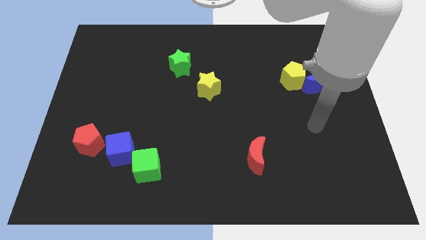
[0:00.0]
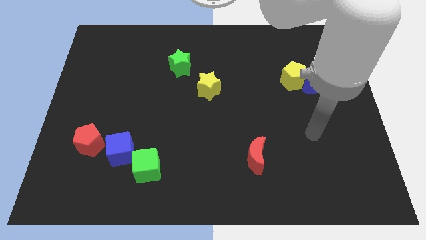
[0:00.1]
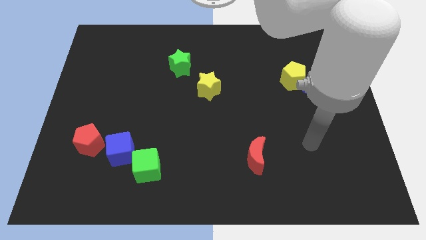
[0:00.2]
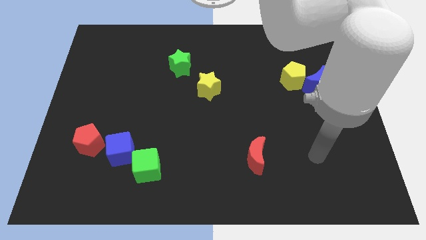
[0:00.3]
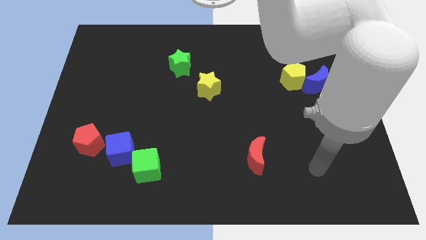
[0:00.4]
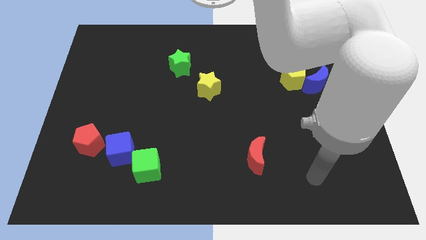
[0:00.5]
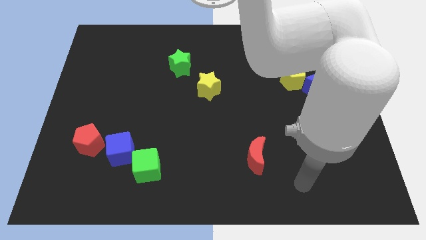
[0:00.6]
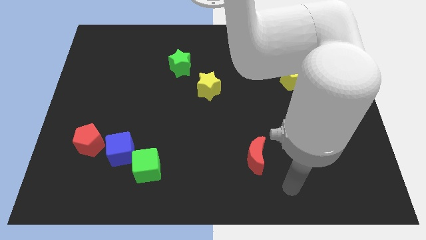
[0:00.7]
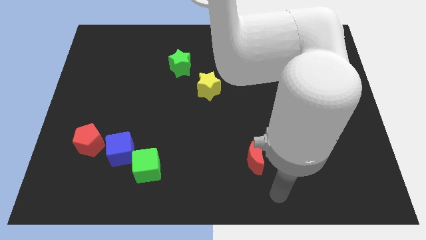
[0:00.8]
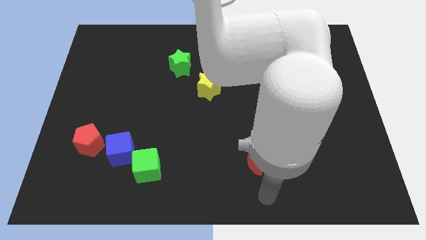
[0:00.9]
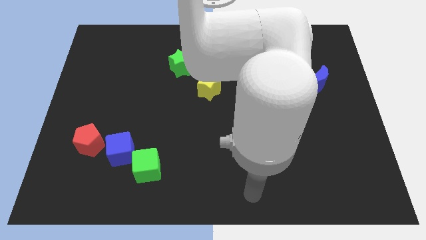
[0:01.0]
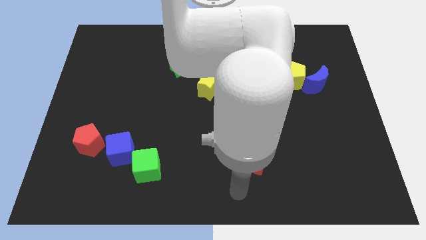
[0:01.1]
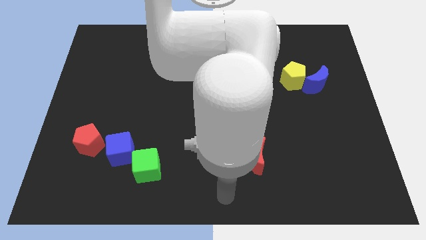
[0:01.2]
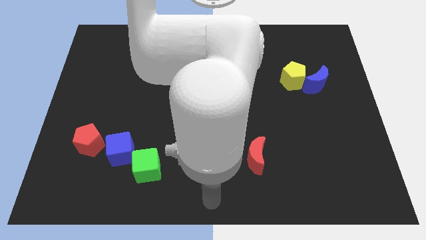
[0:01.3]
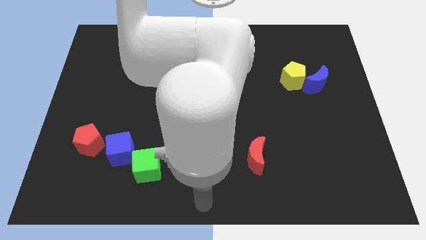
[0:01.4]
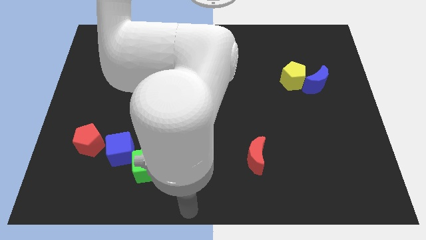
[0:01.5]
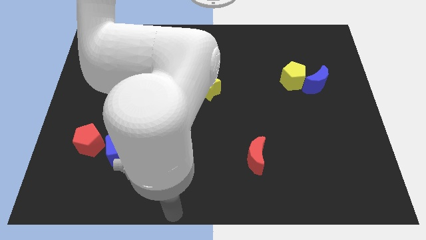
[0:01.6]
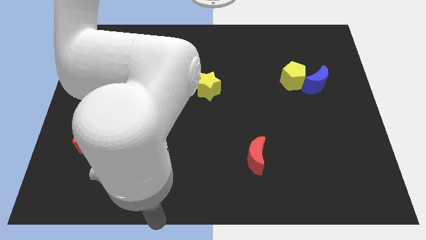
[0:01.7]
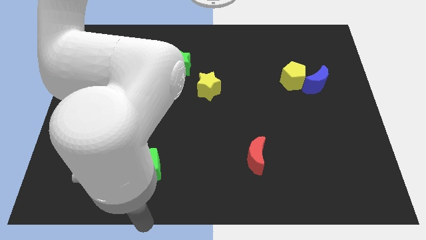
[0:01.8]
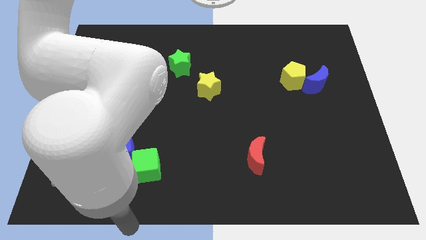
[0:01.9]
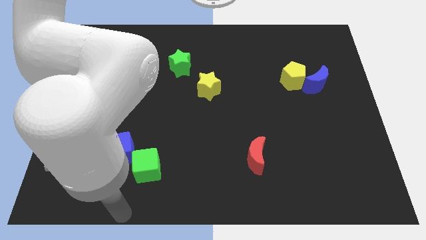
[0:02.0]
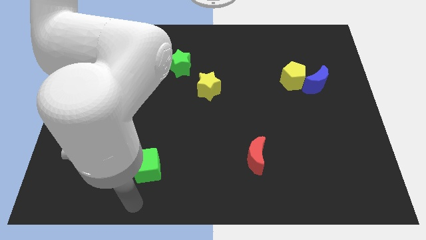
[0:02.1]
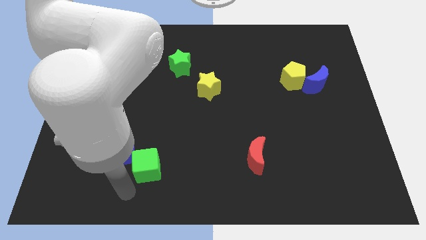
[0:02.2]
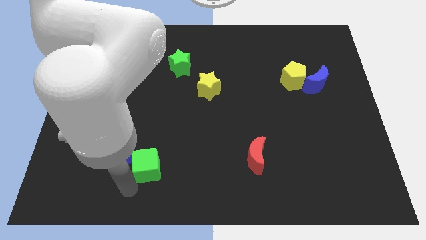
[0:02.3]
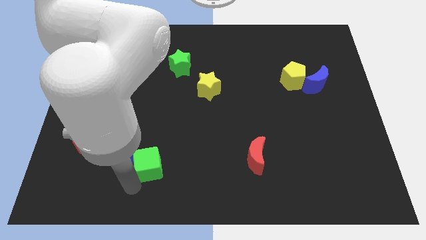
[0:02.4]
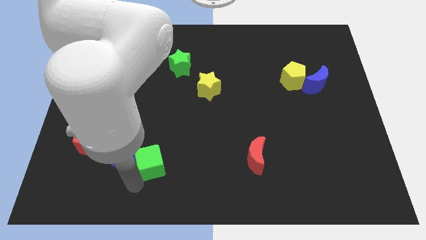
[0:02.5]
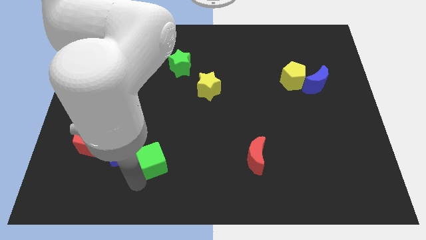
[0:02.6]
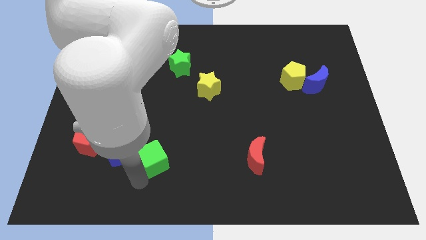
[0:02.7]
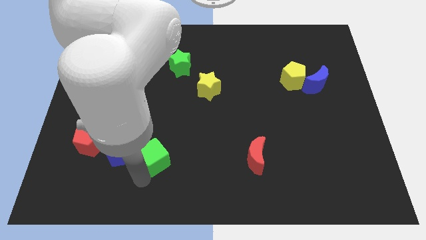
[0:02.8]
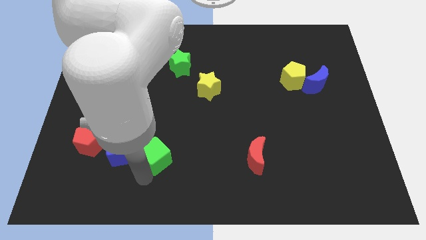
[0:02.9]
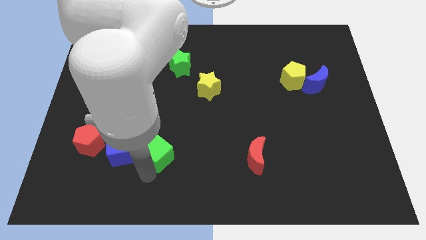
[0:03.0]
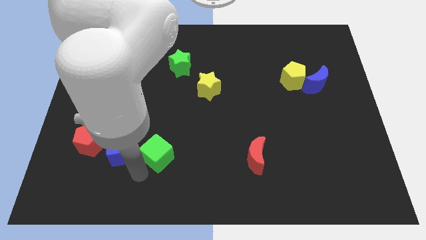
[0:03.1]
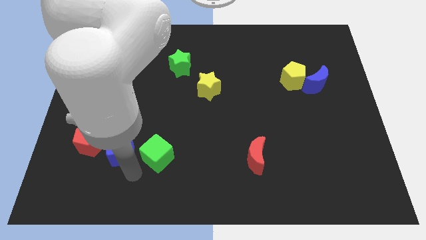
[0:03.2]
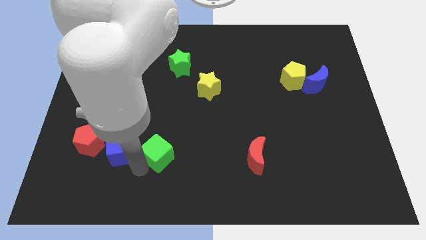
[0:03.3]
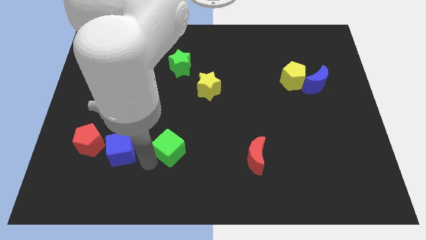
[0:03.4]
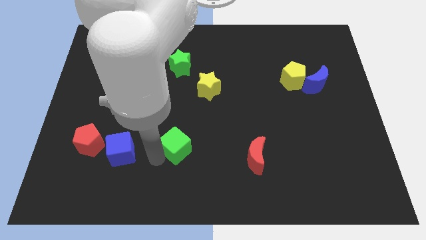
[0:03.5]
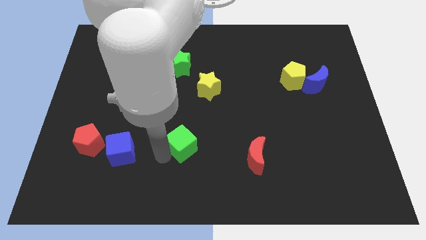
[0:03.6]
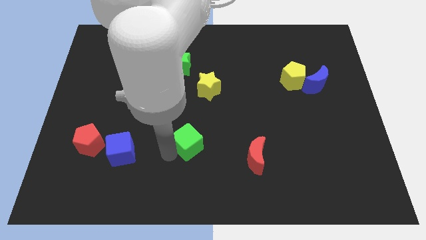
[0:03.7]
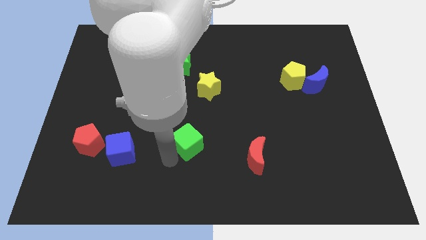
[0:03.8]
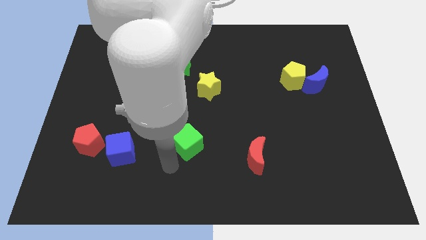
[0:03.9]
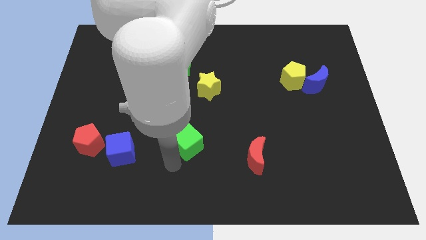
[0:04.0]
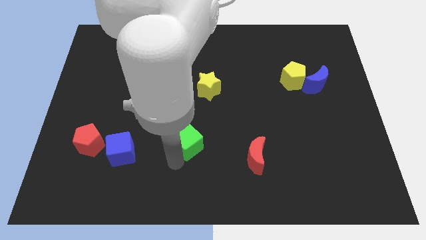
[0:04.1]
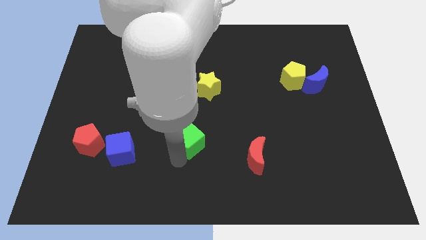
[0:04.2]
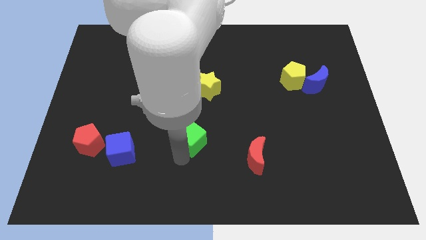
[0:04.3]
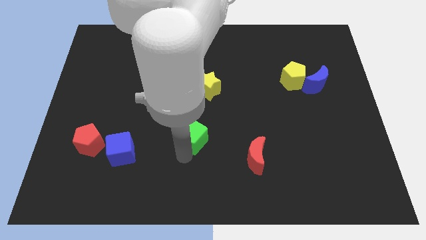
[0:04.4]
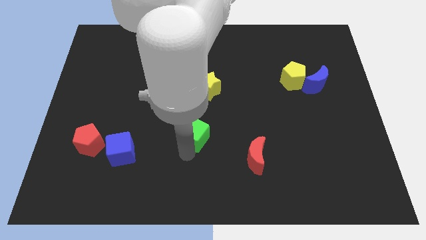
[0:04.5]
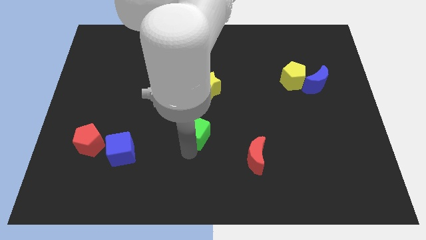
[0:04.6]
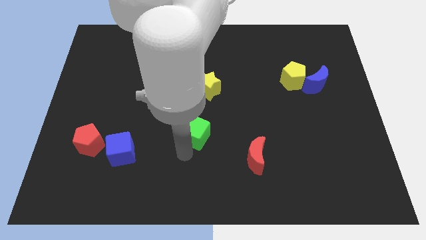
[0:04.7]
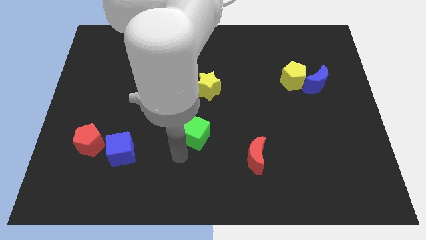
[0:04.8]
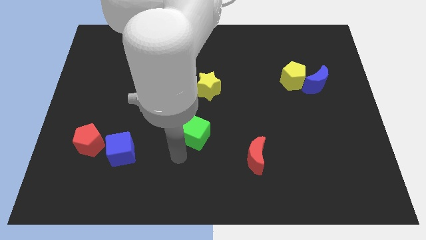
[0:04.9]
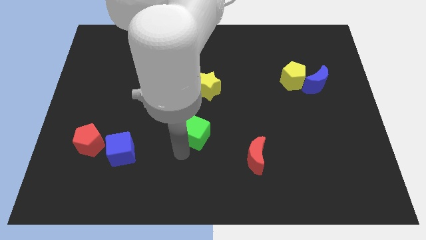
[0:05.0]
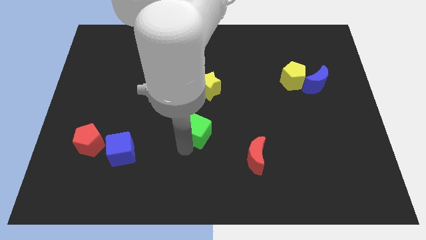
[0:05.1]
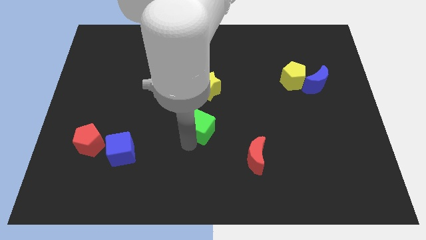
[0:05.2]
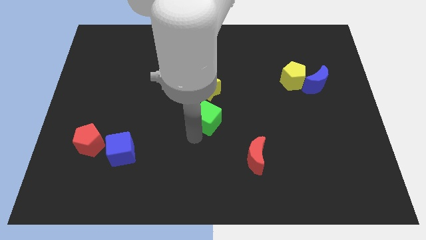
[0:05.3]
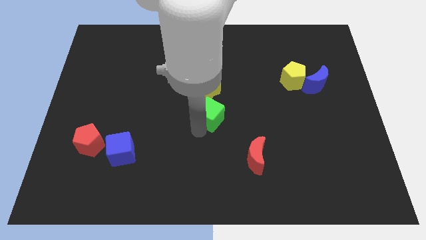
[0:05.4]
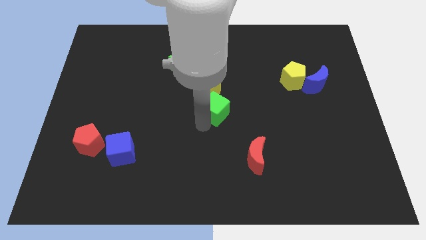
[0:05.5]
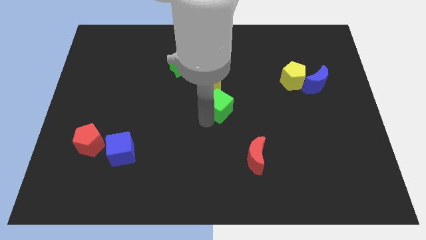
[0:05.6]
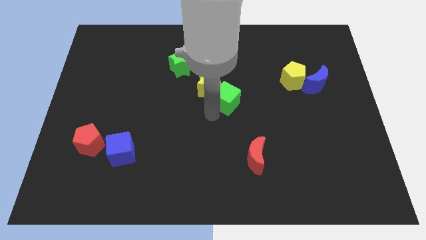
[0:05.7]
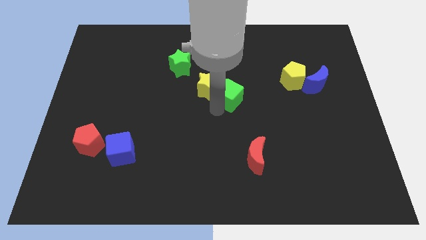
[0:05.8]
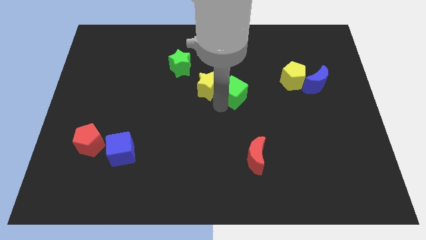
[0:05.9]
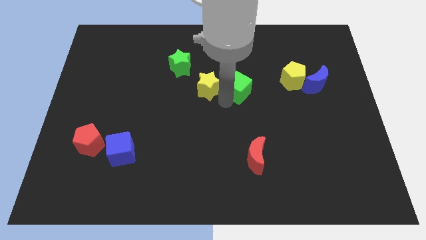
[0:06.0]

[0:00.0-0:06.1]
push the green cube to the left side of the yellow pentagon

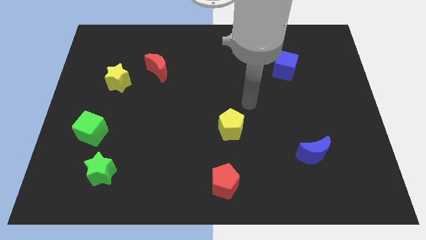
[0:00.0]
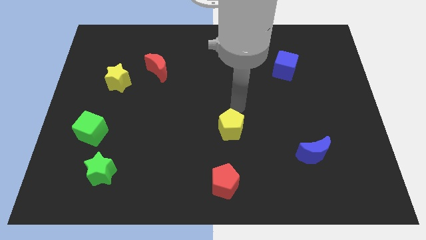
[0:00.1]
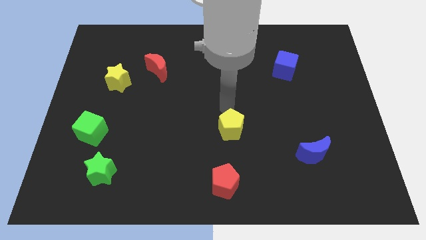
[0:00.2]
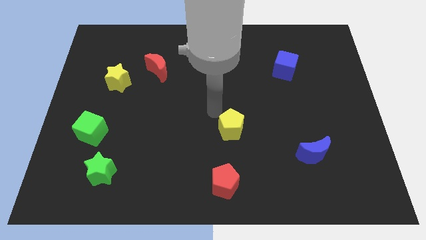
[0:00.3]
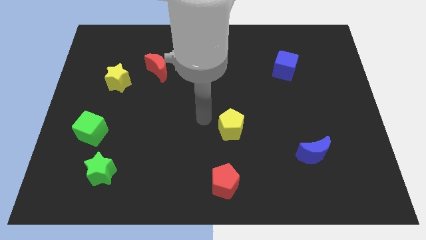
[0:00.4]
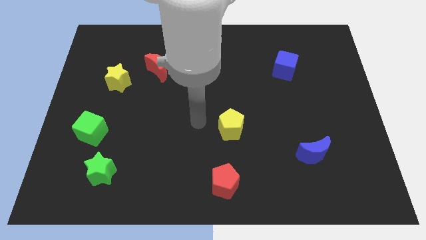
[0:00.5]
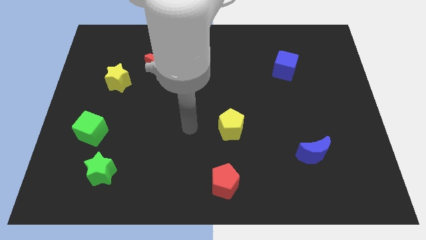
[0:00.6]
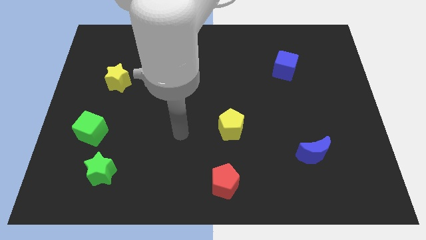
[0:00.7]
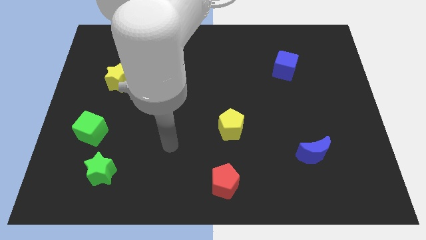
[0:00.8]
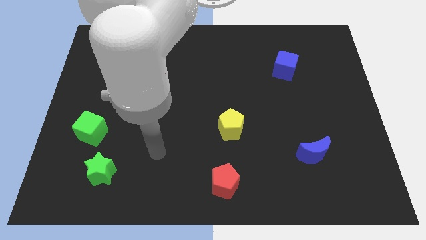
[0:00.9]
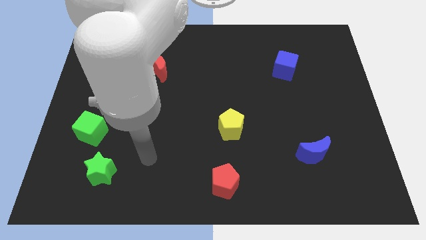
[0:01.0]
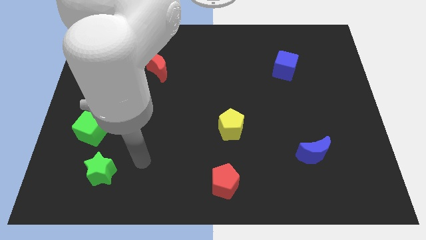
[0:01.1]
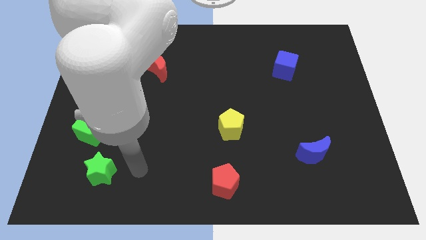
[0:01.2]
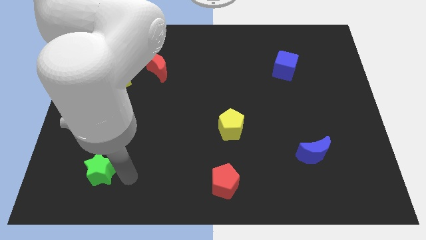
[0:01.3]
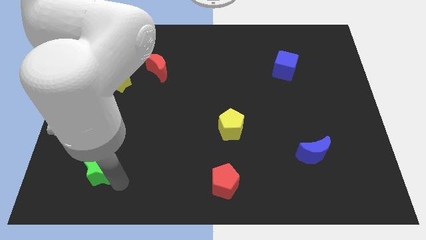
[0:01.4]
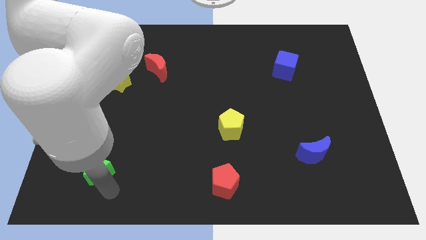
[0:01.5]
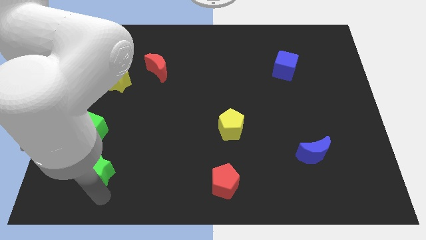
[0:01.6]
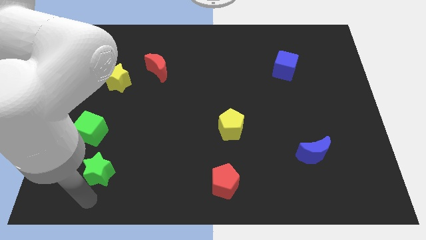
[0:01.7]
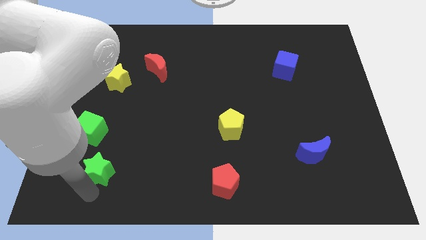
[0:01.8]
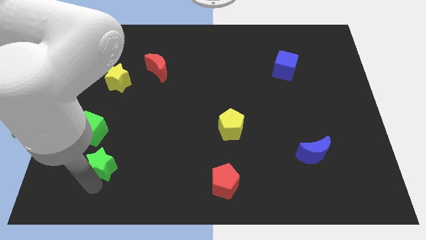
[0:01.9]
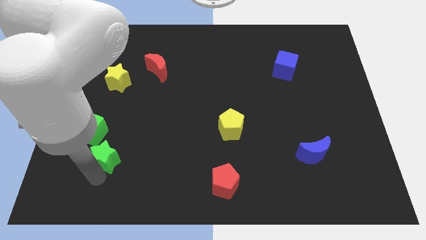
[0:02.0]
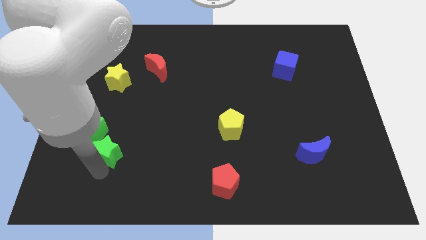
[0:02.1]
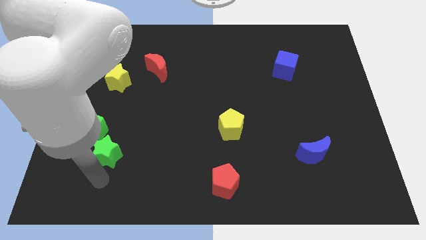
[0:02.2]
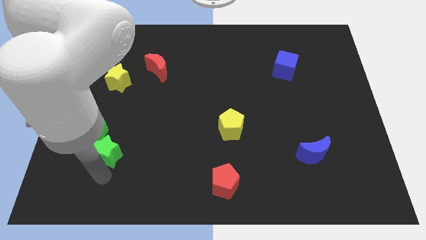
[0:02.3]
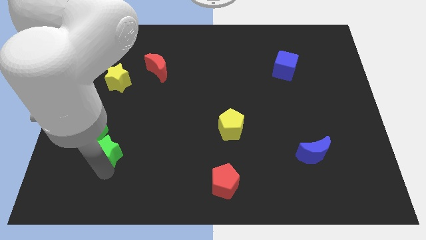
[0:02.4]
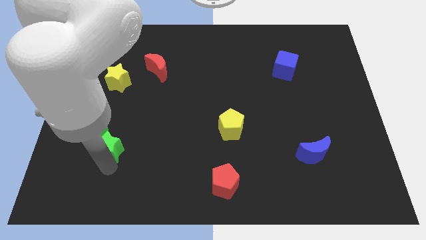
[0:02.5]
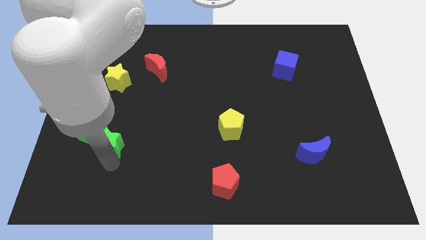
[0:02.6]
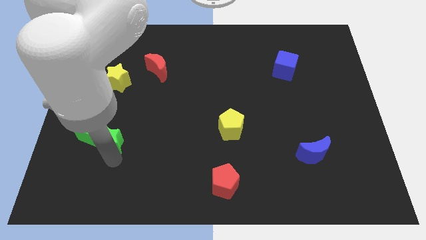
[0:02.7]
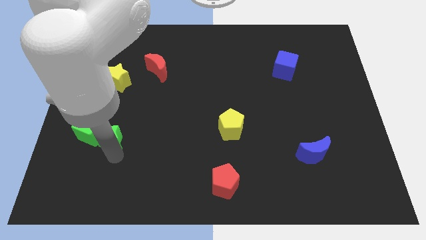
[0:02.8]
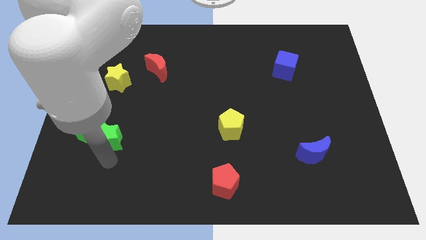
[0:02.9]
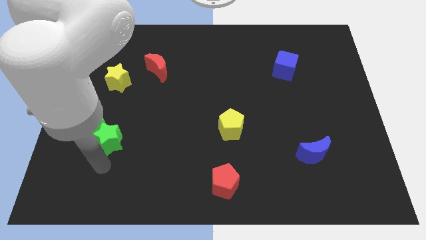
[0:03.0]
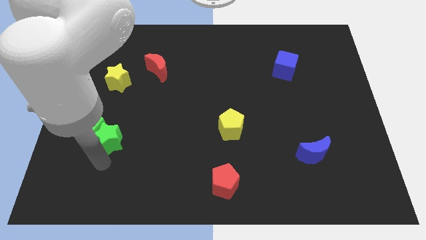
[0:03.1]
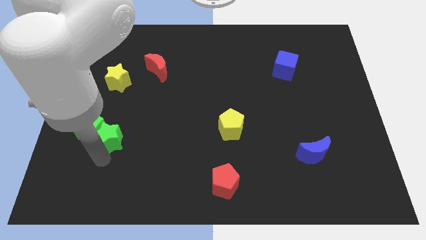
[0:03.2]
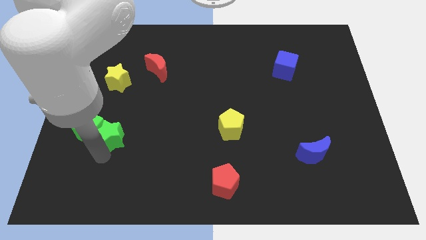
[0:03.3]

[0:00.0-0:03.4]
slide the green star diagonally up and to the right of the green cube
